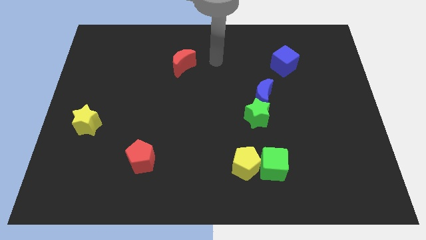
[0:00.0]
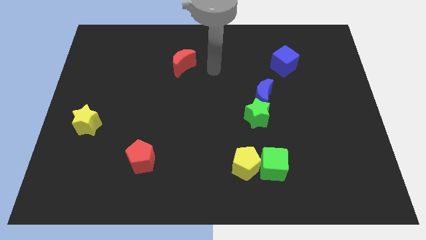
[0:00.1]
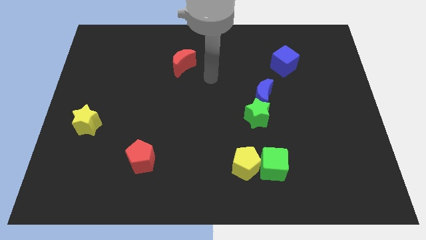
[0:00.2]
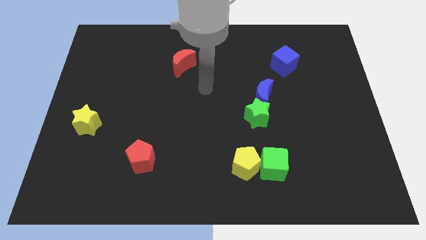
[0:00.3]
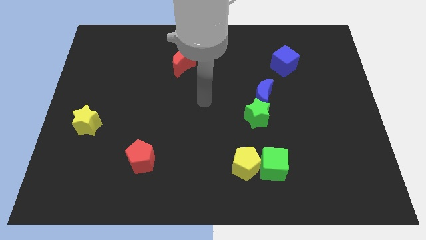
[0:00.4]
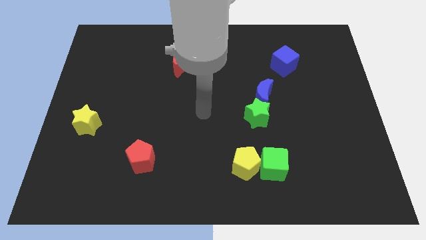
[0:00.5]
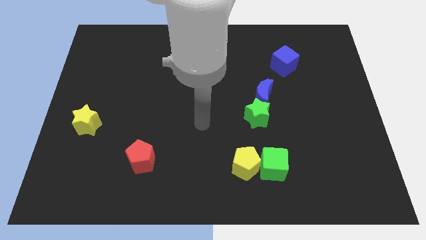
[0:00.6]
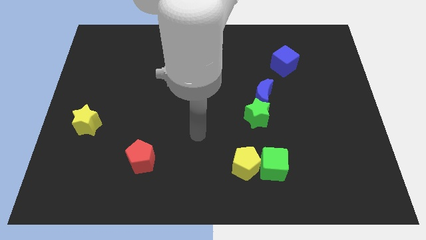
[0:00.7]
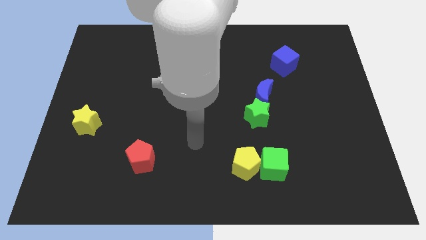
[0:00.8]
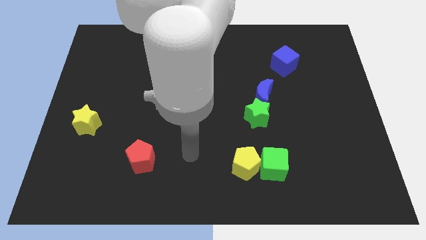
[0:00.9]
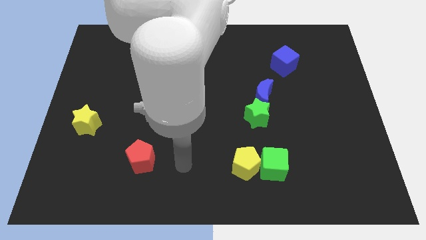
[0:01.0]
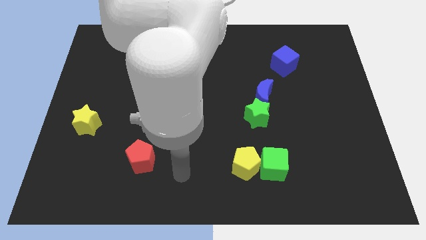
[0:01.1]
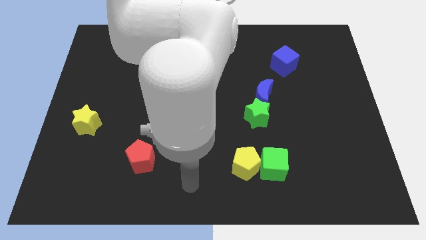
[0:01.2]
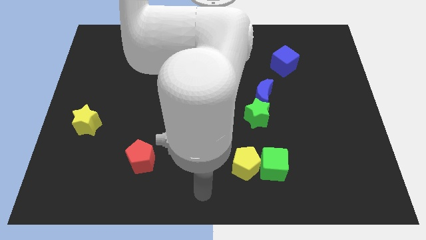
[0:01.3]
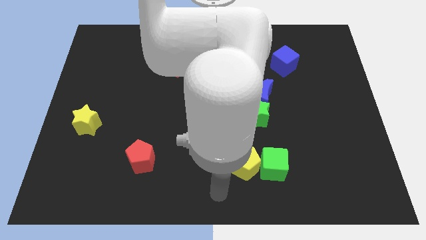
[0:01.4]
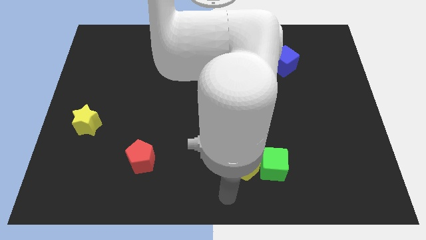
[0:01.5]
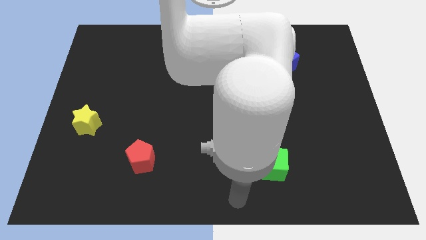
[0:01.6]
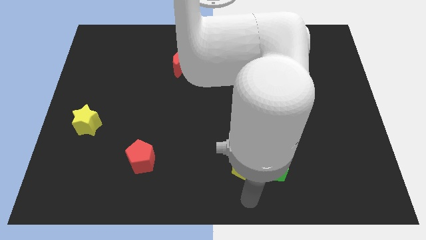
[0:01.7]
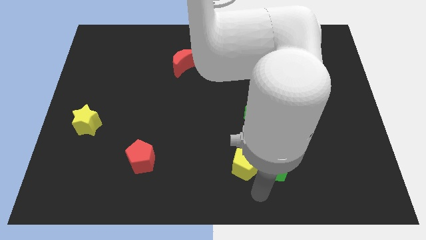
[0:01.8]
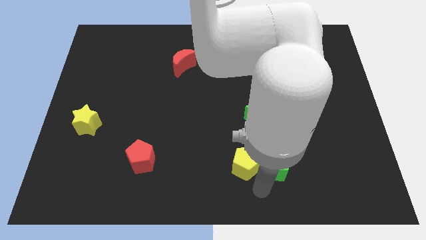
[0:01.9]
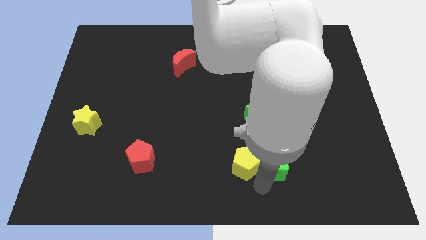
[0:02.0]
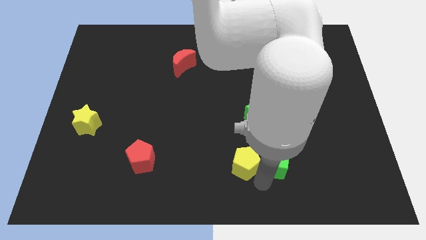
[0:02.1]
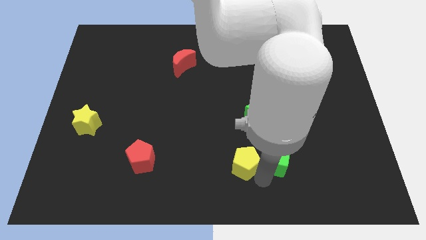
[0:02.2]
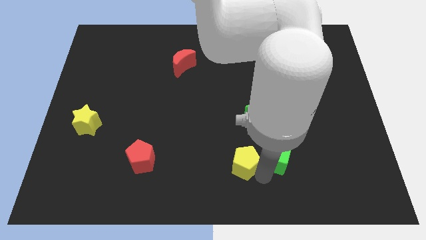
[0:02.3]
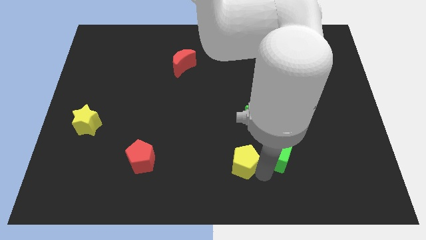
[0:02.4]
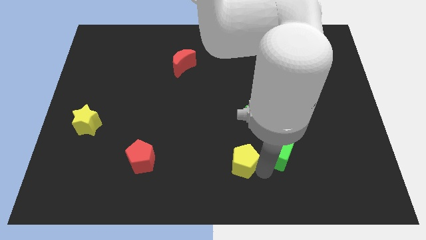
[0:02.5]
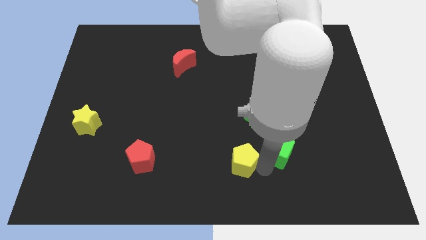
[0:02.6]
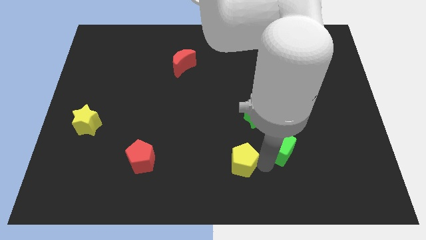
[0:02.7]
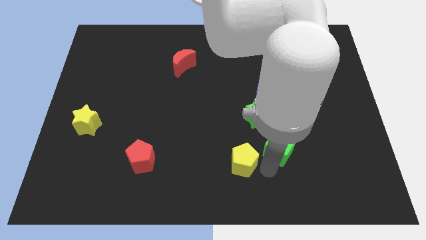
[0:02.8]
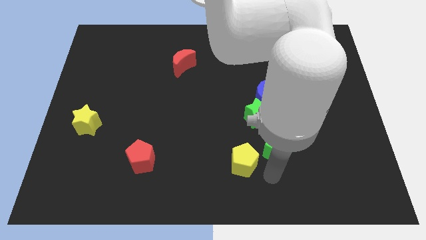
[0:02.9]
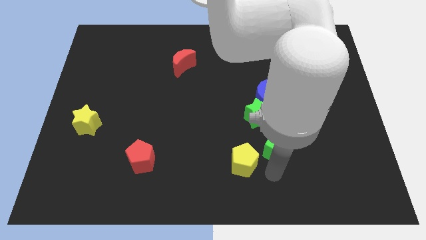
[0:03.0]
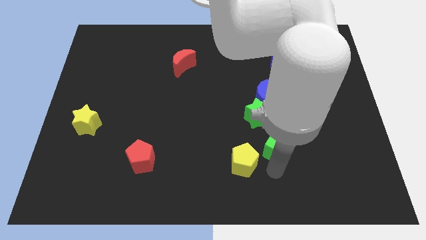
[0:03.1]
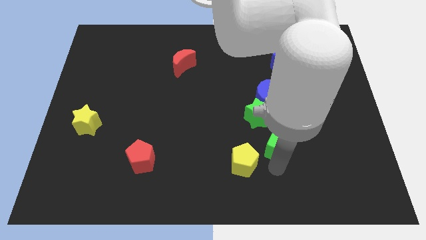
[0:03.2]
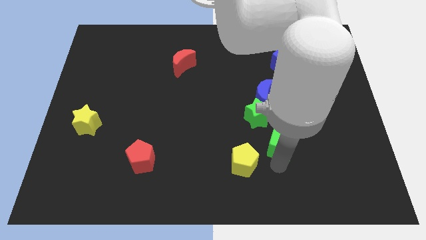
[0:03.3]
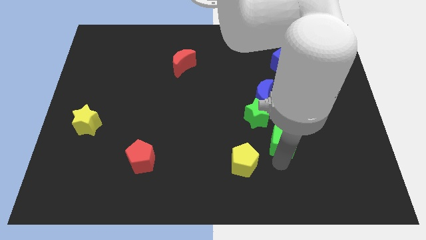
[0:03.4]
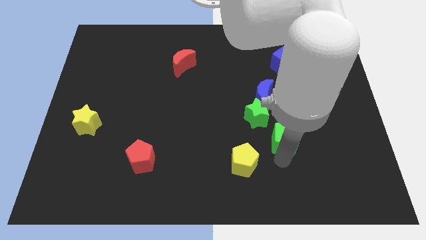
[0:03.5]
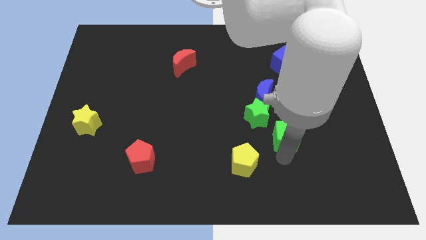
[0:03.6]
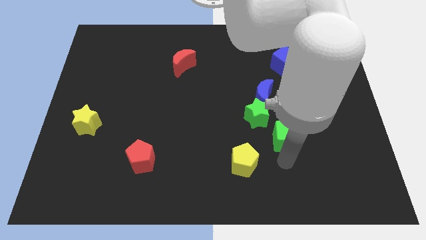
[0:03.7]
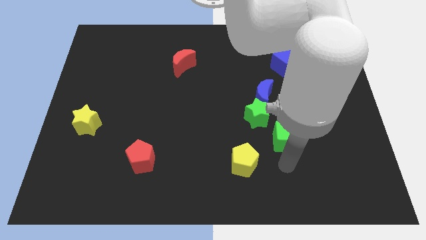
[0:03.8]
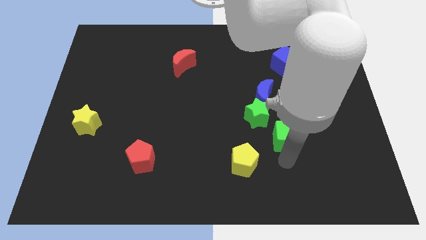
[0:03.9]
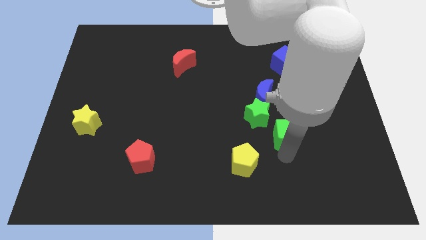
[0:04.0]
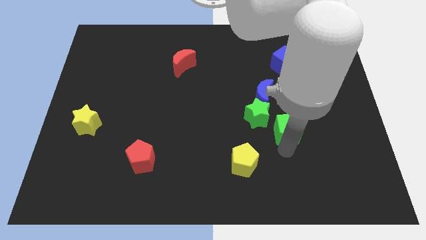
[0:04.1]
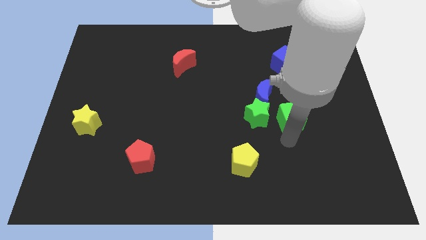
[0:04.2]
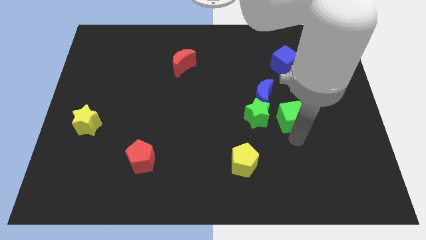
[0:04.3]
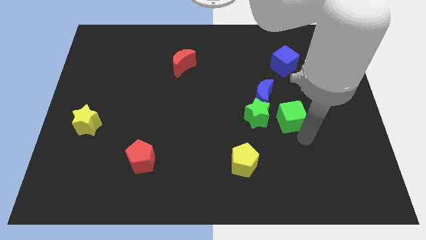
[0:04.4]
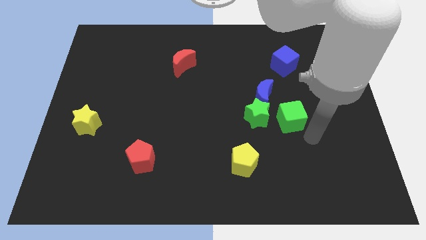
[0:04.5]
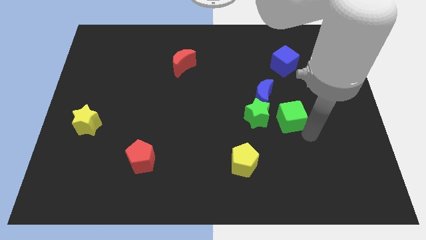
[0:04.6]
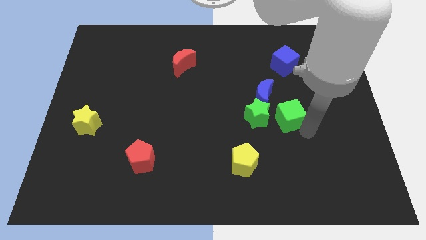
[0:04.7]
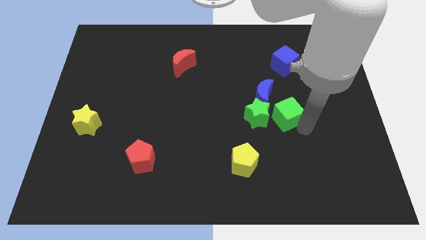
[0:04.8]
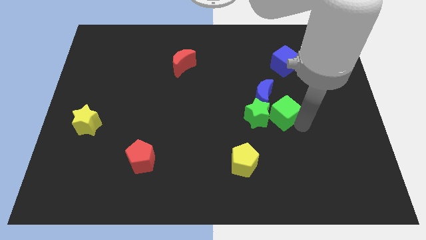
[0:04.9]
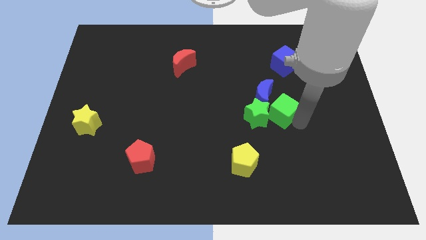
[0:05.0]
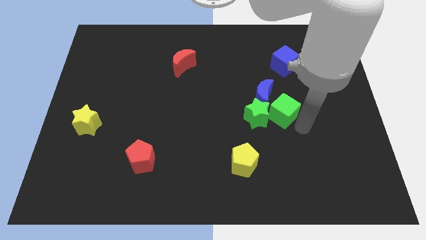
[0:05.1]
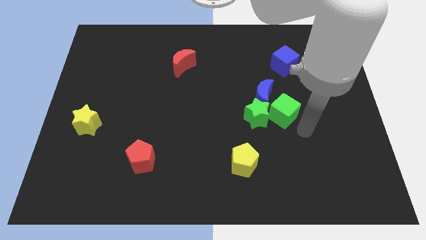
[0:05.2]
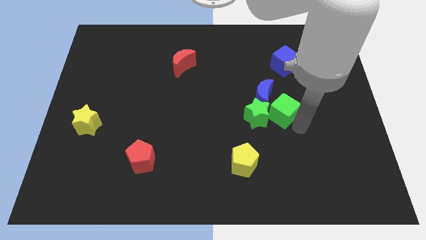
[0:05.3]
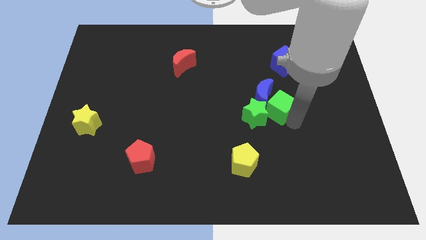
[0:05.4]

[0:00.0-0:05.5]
put the green cube next to the blue moon

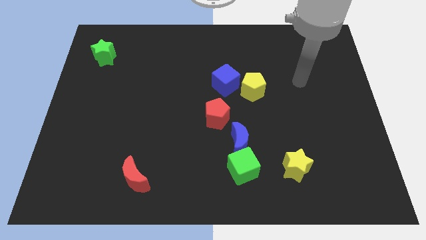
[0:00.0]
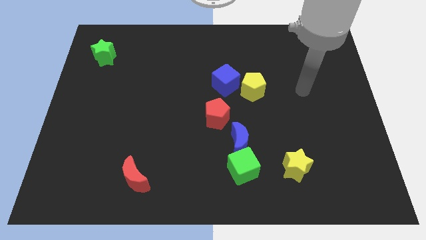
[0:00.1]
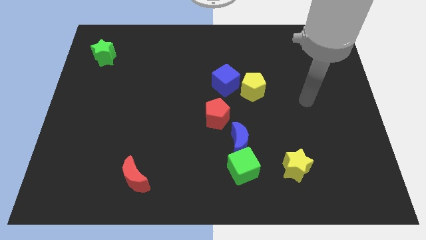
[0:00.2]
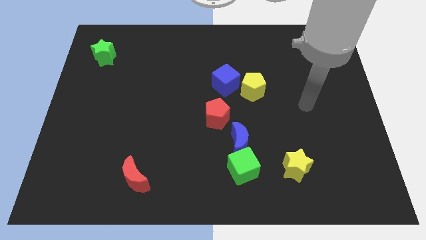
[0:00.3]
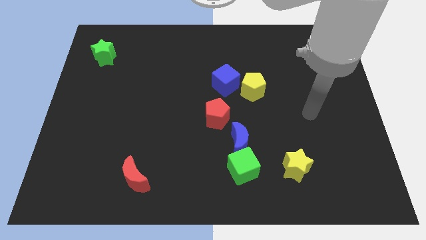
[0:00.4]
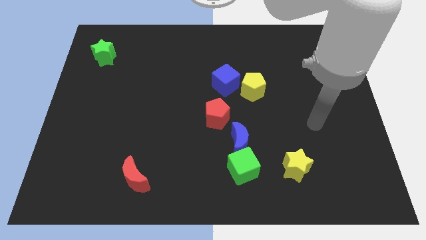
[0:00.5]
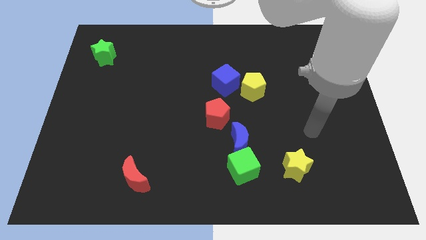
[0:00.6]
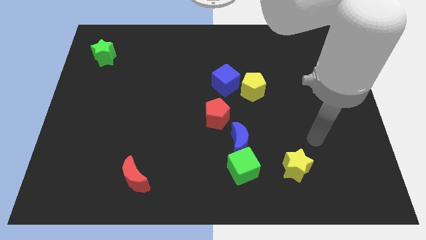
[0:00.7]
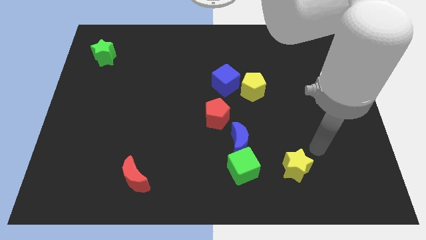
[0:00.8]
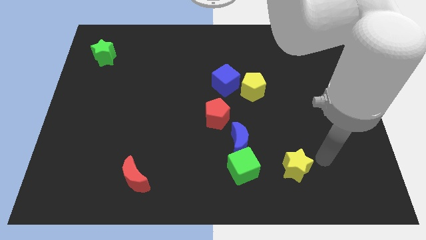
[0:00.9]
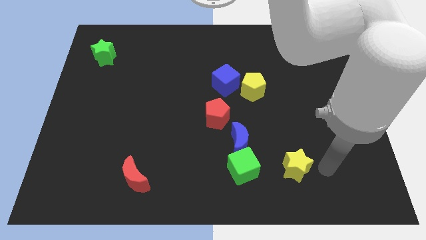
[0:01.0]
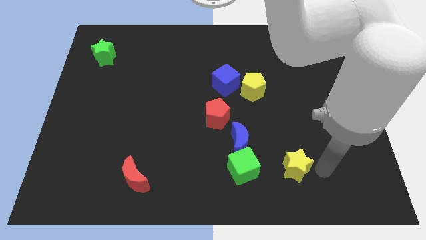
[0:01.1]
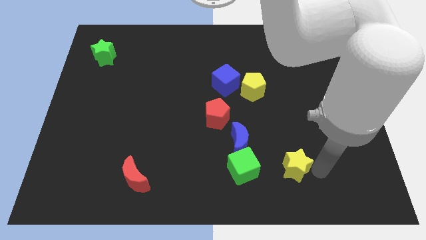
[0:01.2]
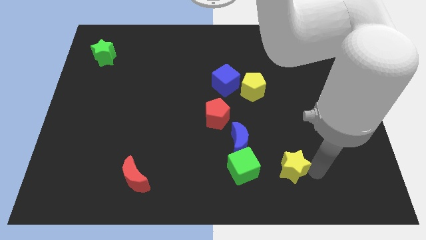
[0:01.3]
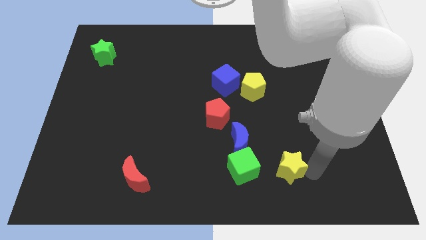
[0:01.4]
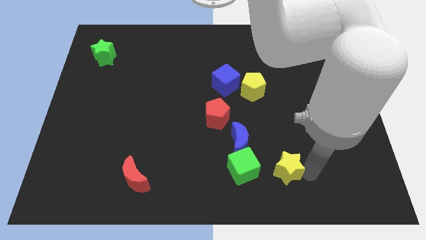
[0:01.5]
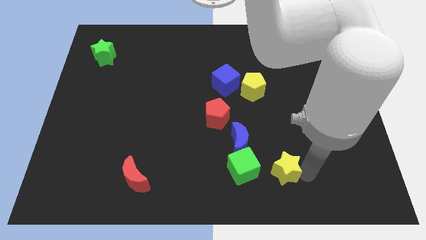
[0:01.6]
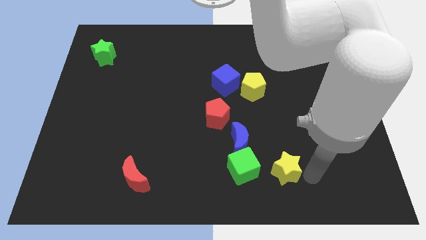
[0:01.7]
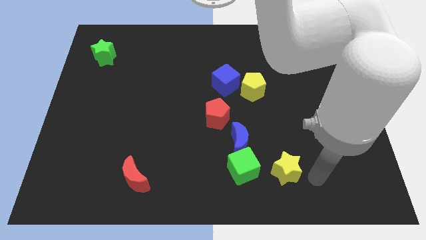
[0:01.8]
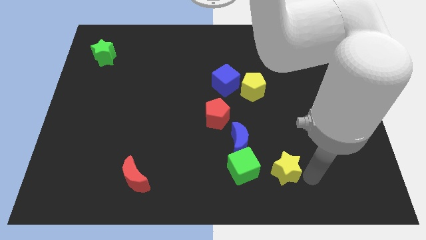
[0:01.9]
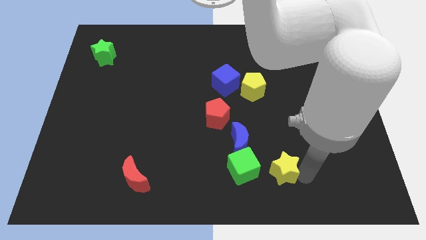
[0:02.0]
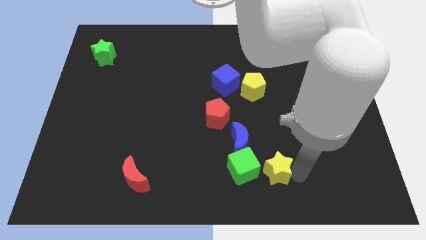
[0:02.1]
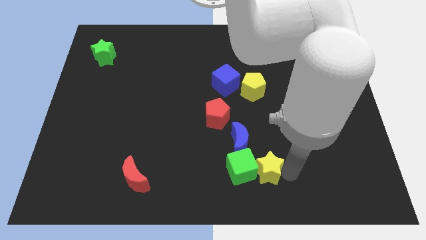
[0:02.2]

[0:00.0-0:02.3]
push the yellow star to the green cube

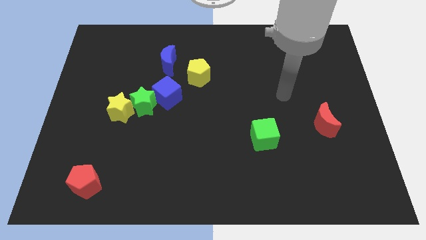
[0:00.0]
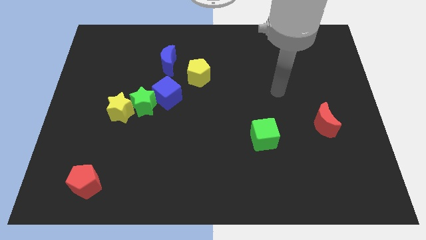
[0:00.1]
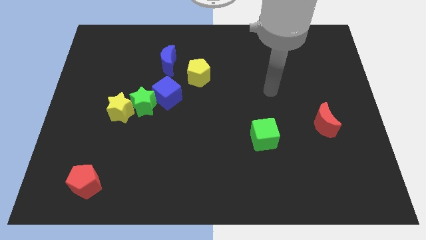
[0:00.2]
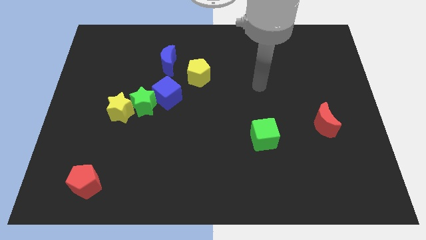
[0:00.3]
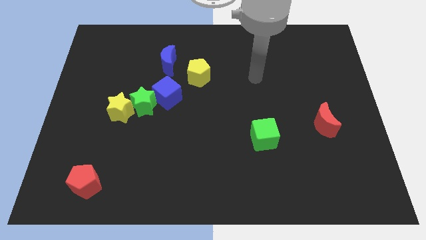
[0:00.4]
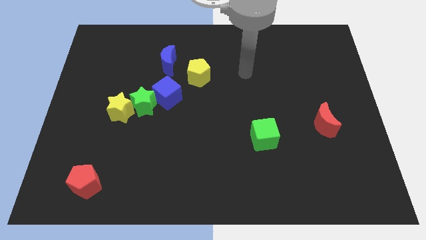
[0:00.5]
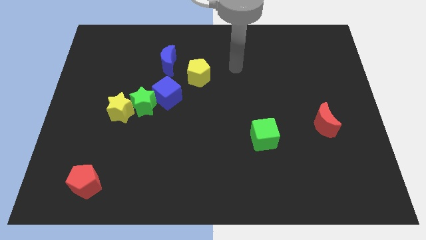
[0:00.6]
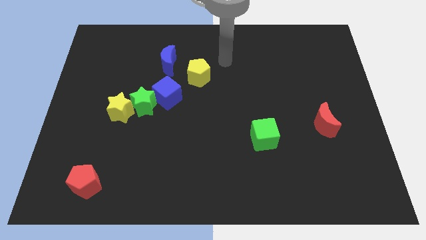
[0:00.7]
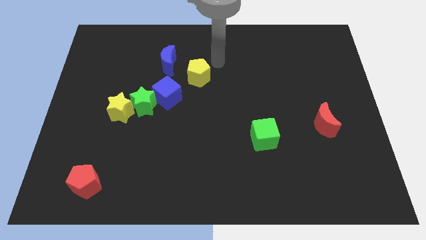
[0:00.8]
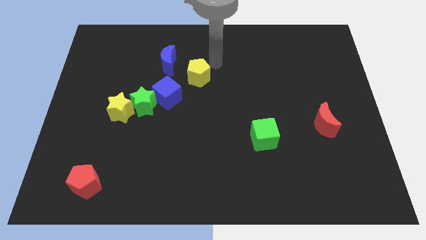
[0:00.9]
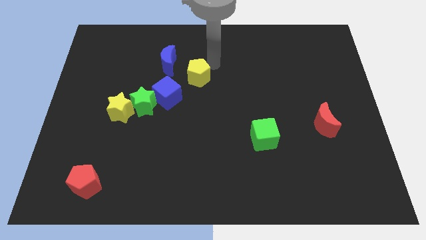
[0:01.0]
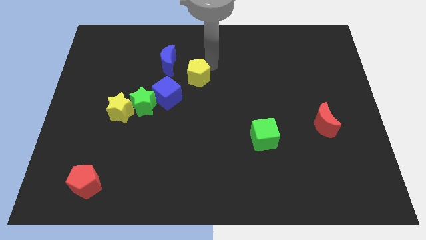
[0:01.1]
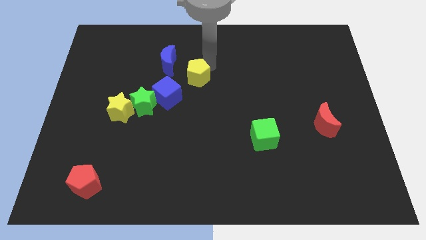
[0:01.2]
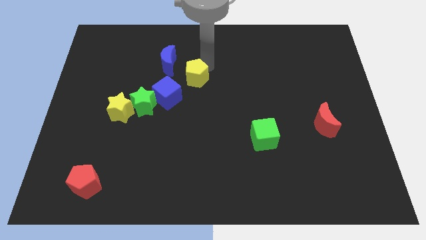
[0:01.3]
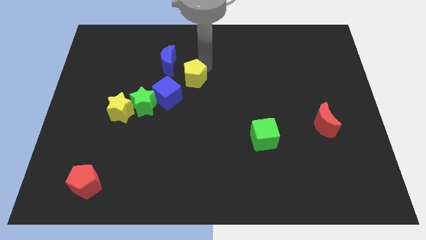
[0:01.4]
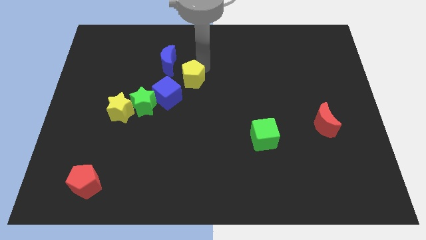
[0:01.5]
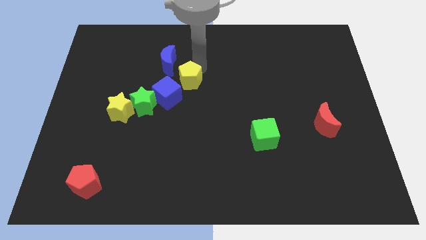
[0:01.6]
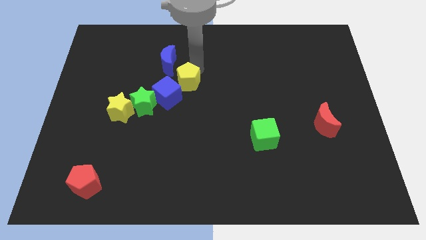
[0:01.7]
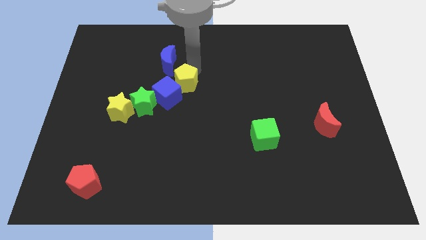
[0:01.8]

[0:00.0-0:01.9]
move the yellow pentagon close to the blue cube
